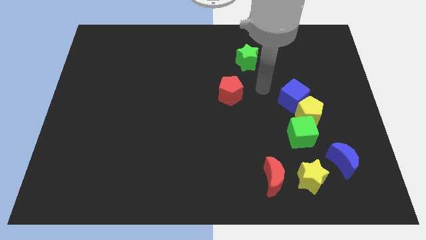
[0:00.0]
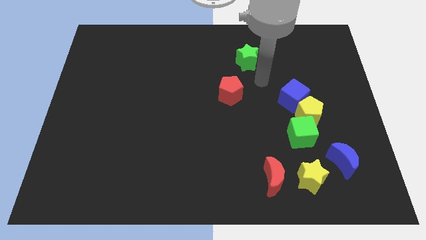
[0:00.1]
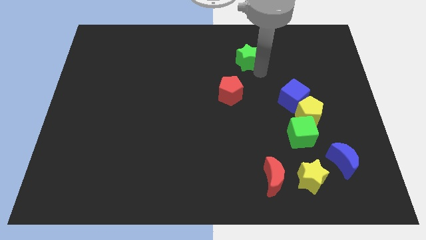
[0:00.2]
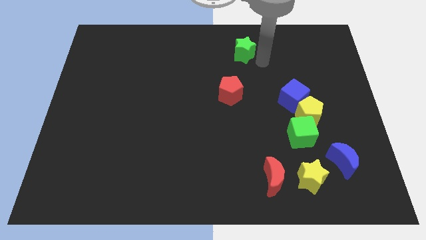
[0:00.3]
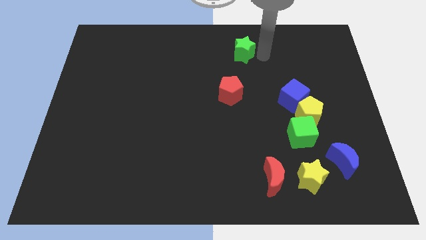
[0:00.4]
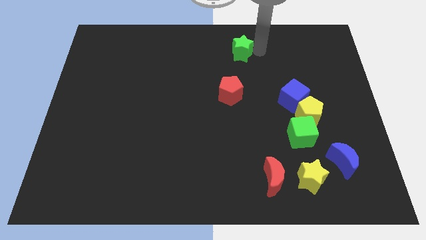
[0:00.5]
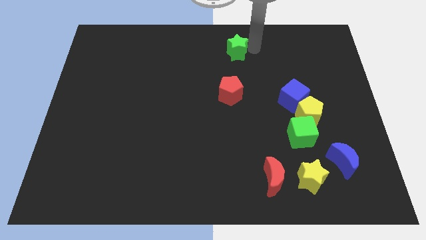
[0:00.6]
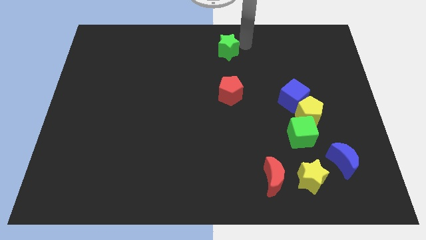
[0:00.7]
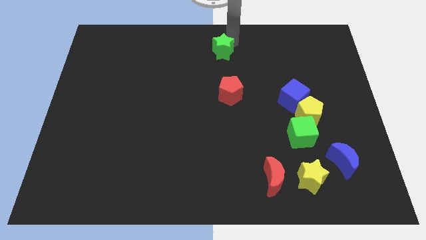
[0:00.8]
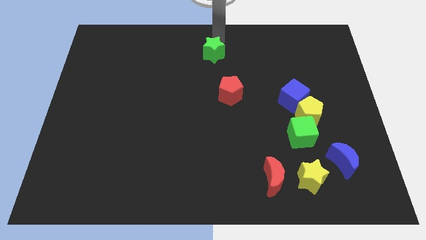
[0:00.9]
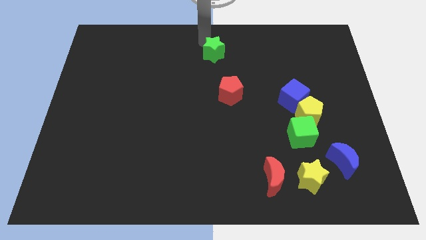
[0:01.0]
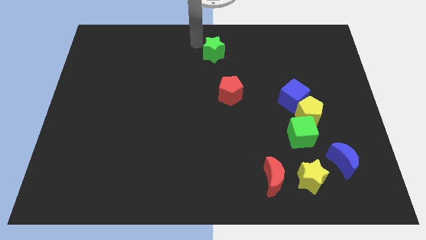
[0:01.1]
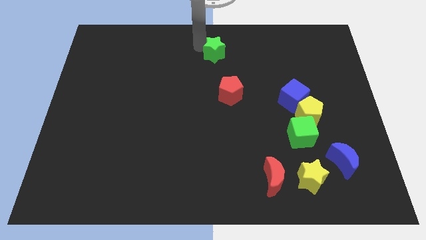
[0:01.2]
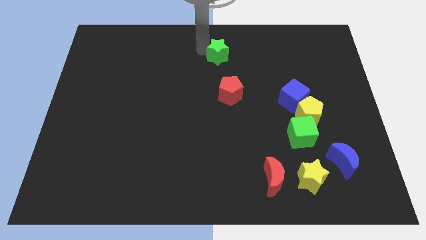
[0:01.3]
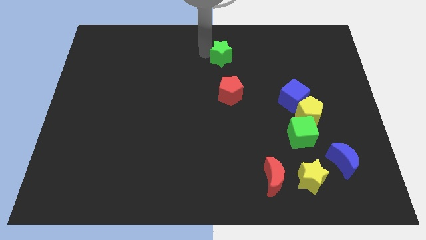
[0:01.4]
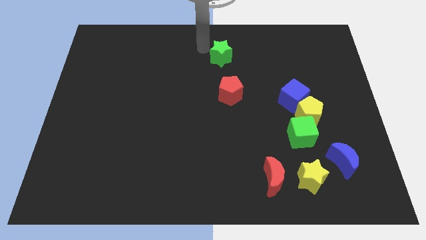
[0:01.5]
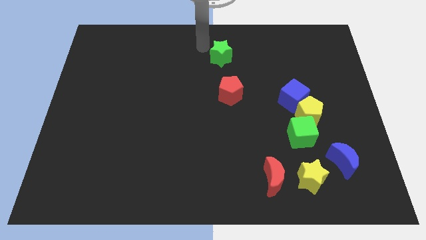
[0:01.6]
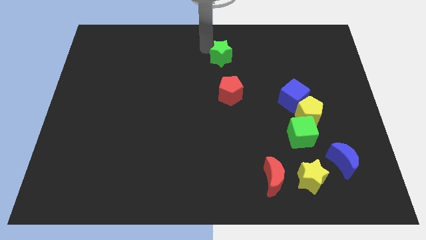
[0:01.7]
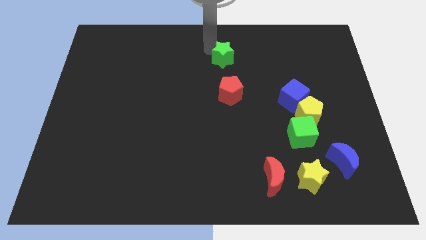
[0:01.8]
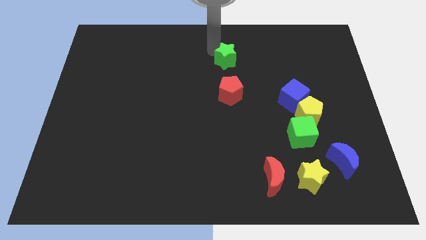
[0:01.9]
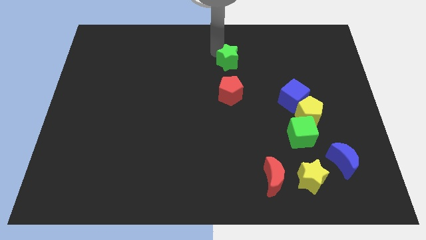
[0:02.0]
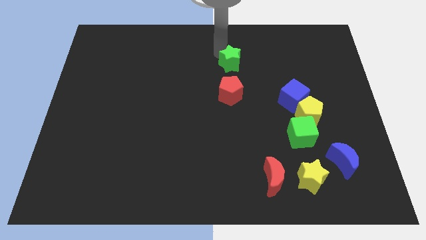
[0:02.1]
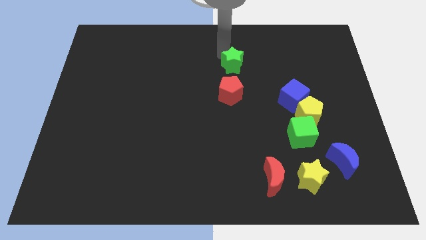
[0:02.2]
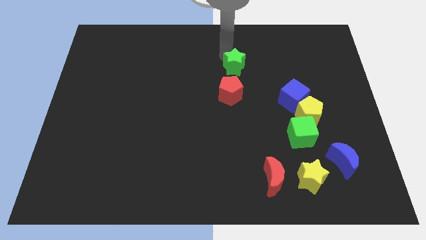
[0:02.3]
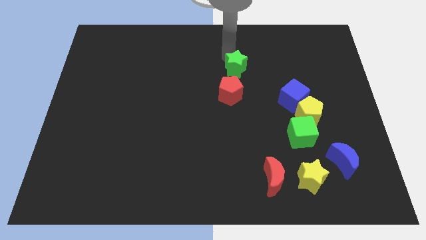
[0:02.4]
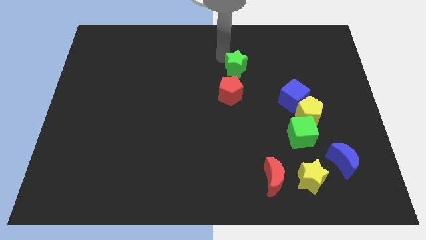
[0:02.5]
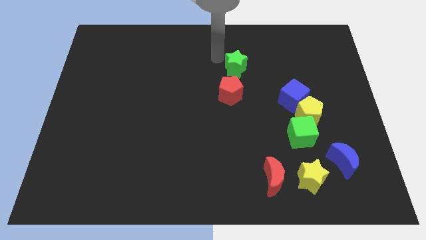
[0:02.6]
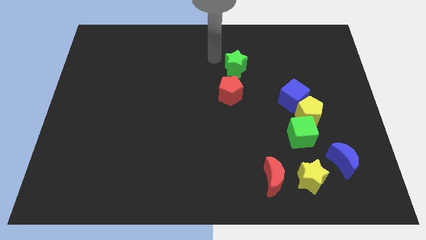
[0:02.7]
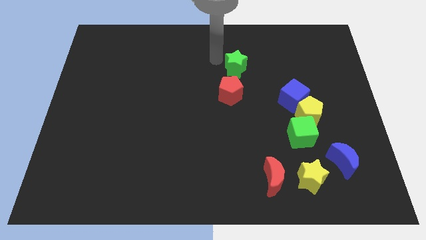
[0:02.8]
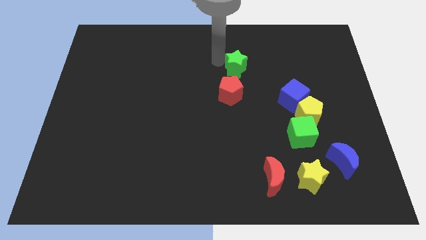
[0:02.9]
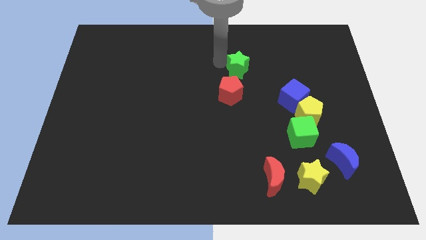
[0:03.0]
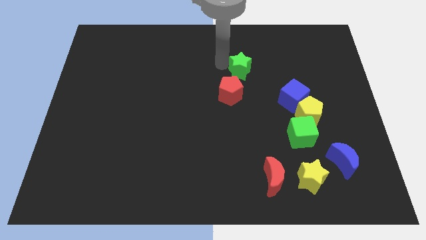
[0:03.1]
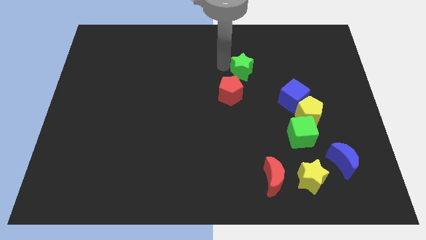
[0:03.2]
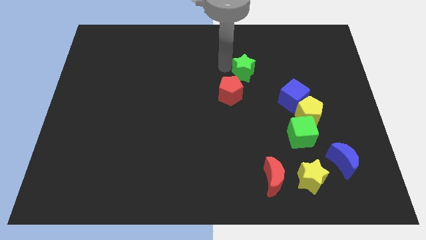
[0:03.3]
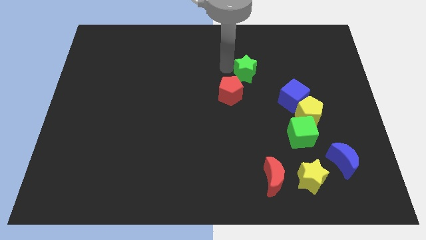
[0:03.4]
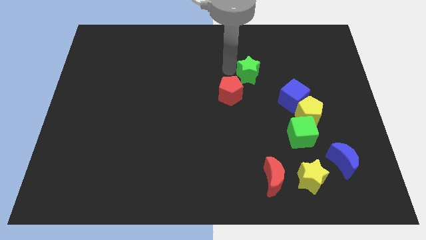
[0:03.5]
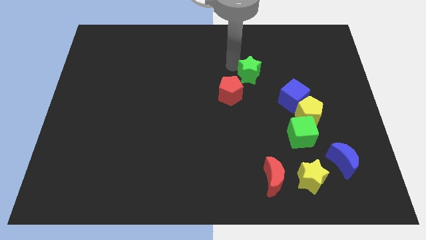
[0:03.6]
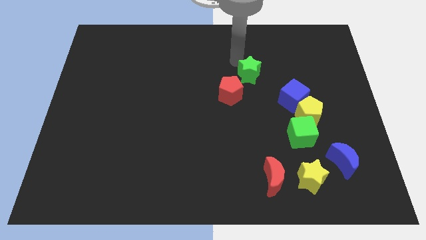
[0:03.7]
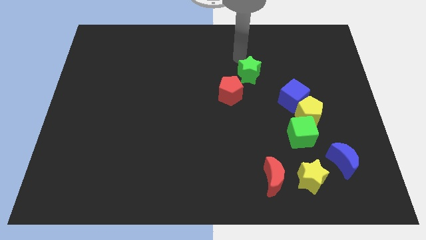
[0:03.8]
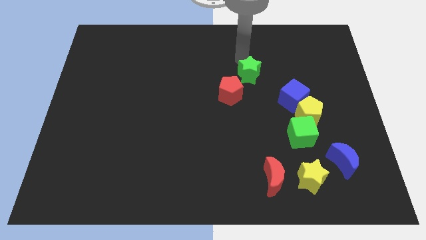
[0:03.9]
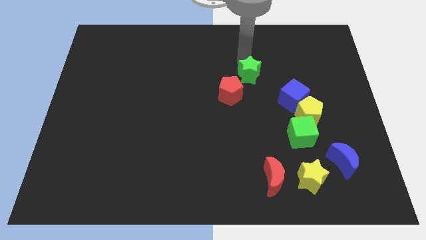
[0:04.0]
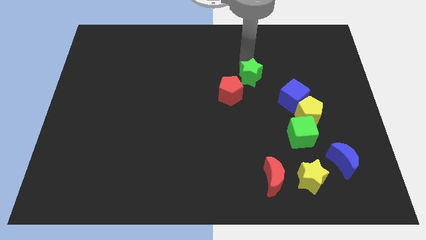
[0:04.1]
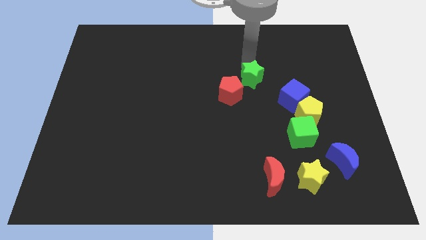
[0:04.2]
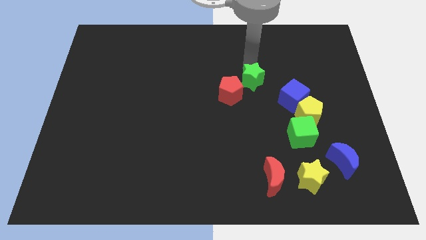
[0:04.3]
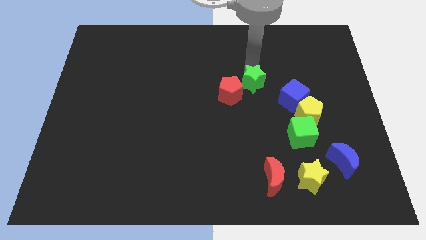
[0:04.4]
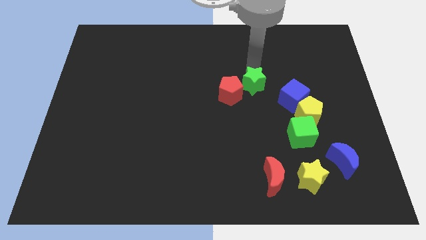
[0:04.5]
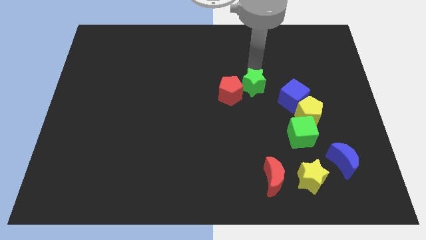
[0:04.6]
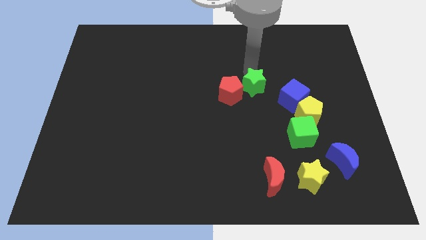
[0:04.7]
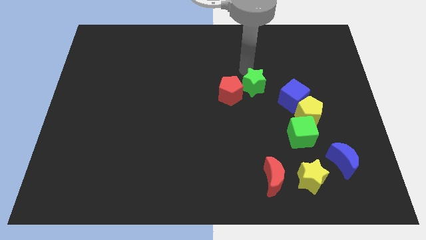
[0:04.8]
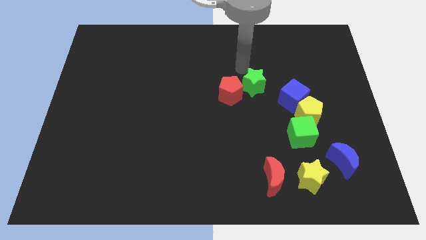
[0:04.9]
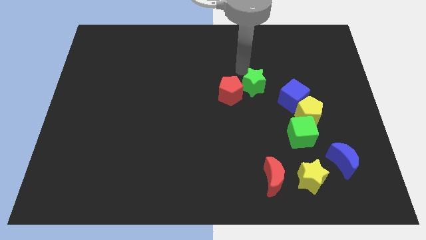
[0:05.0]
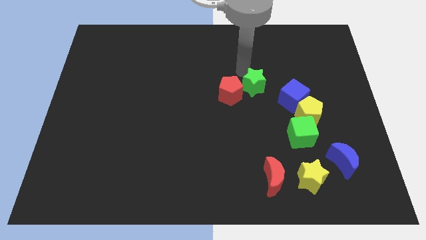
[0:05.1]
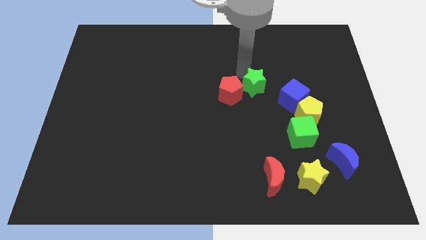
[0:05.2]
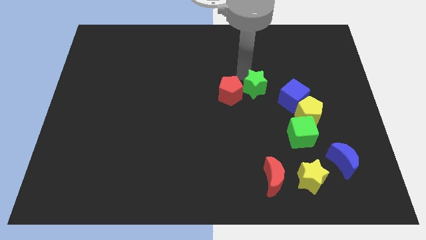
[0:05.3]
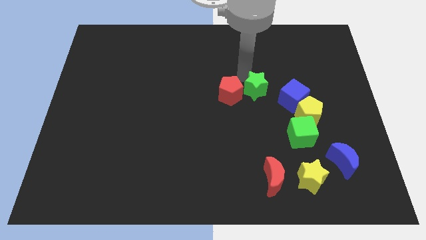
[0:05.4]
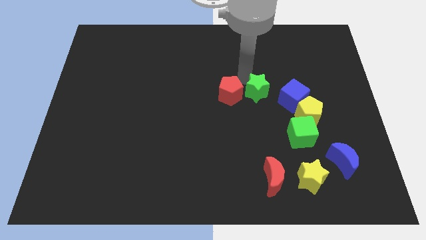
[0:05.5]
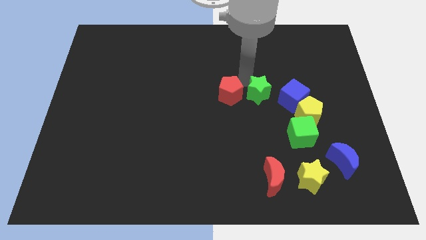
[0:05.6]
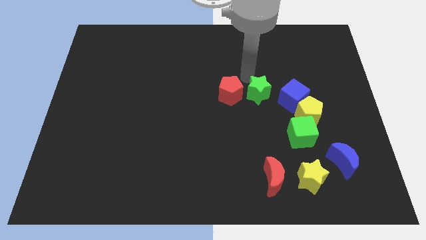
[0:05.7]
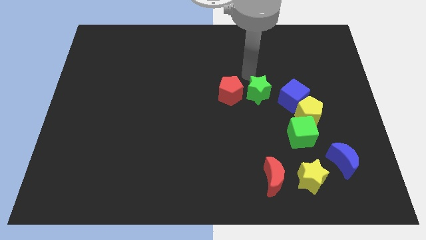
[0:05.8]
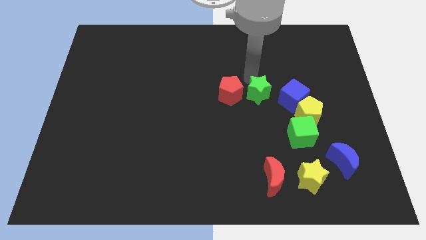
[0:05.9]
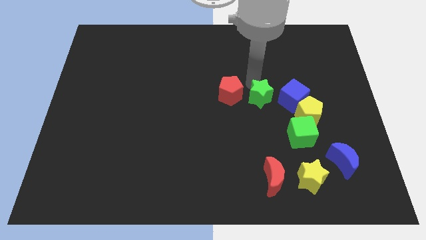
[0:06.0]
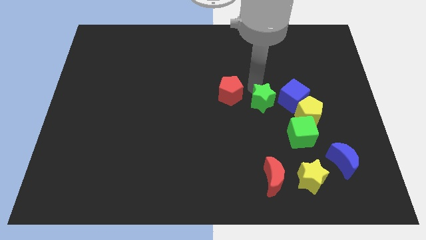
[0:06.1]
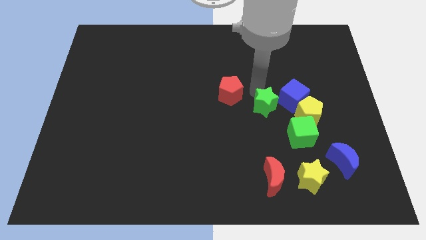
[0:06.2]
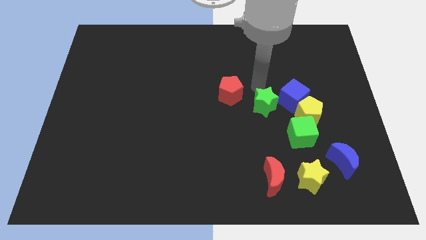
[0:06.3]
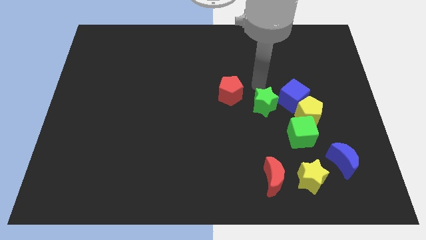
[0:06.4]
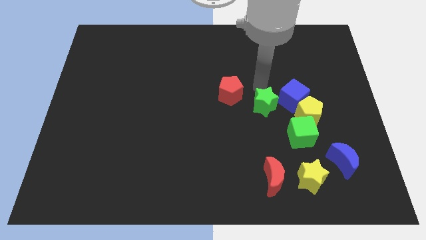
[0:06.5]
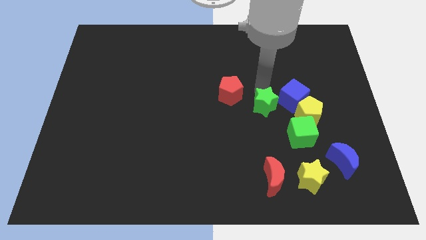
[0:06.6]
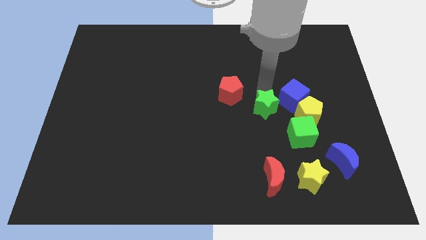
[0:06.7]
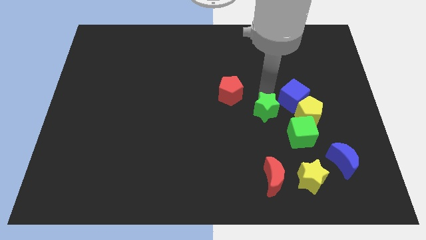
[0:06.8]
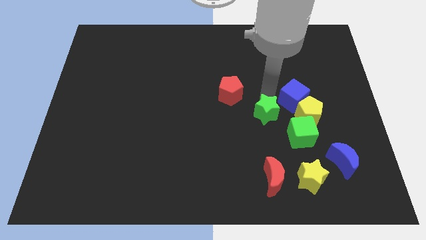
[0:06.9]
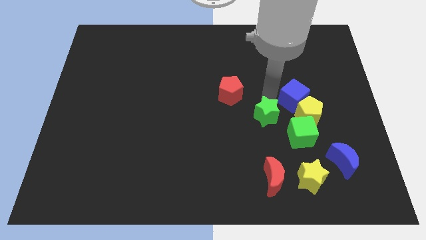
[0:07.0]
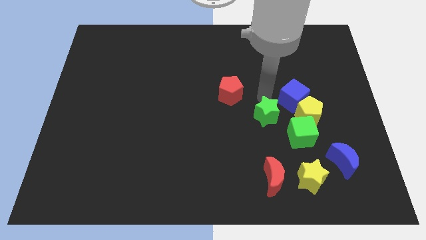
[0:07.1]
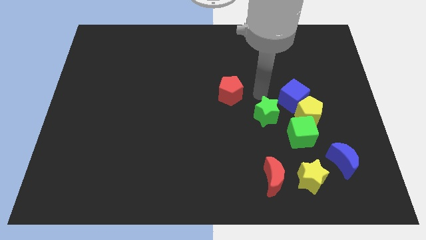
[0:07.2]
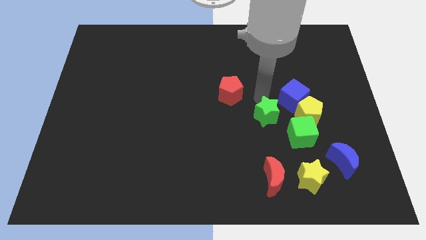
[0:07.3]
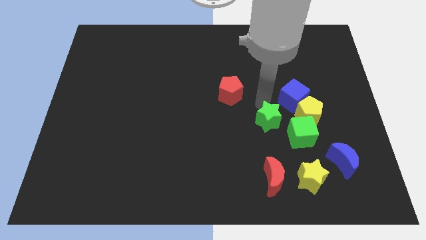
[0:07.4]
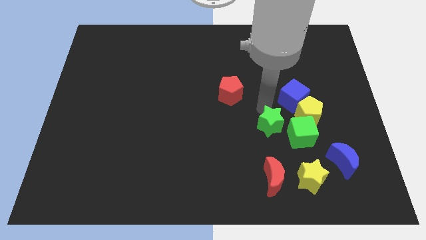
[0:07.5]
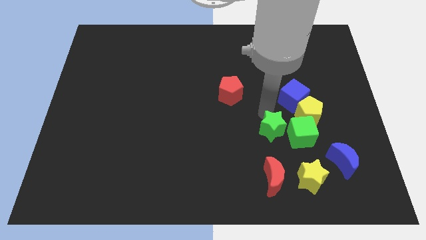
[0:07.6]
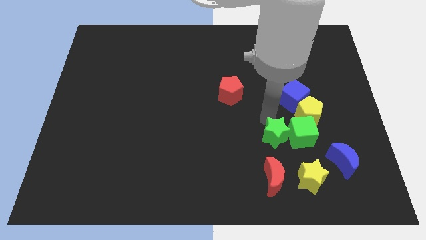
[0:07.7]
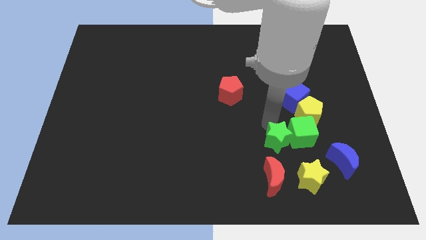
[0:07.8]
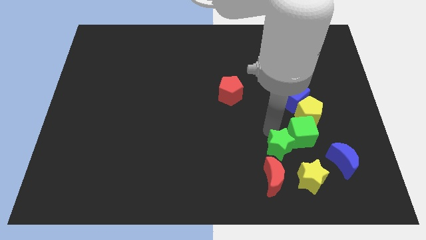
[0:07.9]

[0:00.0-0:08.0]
put the green star to the left of the blue moon
